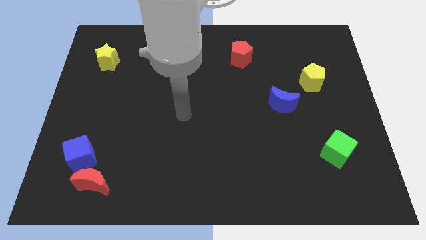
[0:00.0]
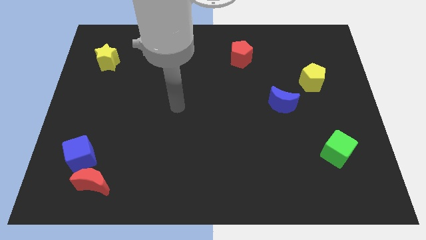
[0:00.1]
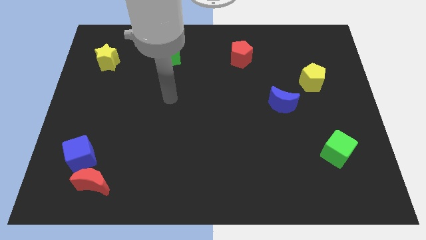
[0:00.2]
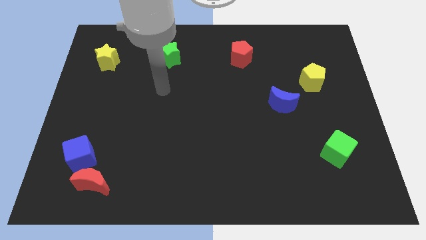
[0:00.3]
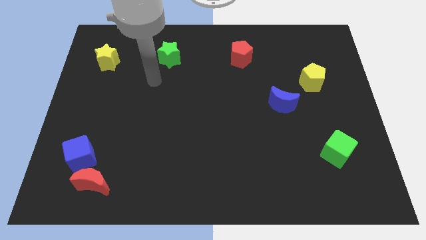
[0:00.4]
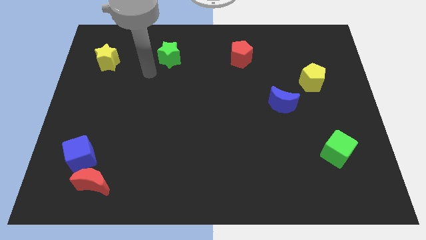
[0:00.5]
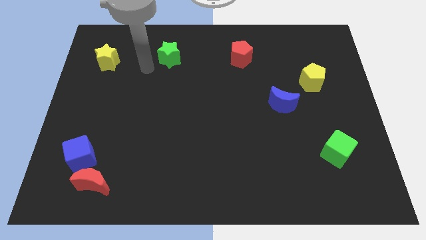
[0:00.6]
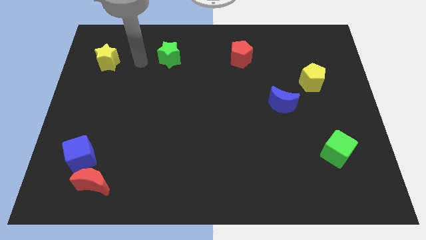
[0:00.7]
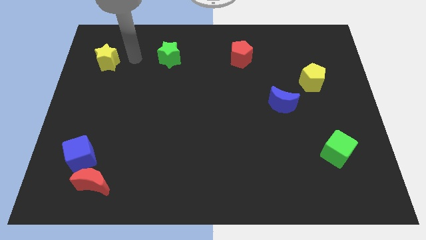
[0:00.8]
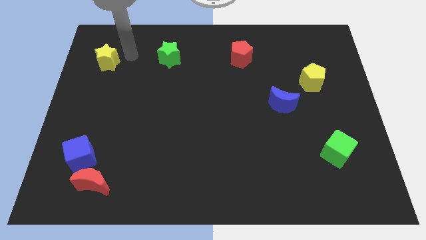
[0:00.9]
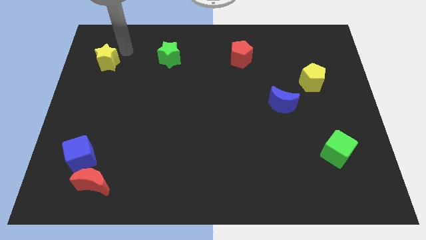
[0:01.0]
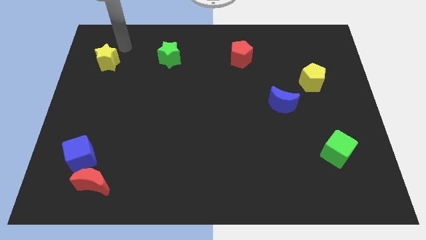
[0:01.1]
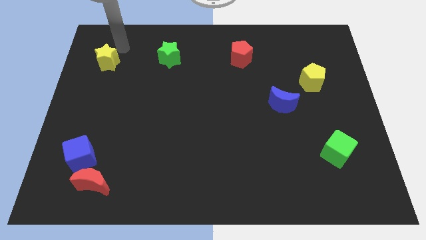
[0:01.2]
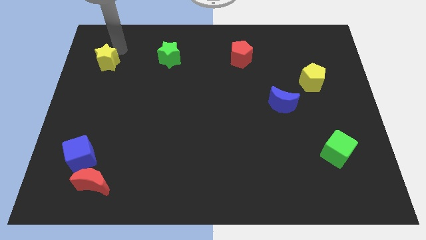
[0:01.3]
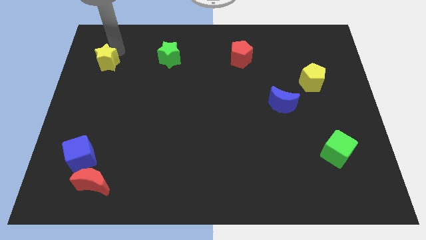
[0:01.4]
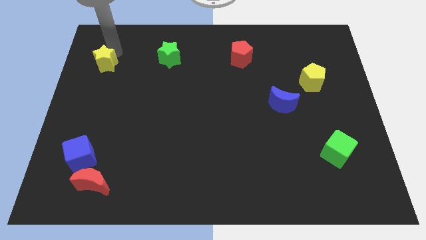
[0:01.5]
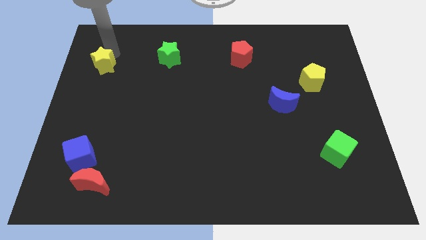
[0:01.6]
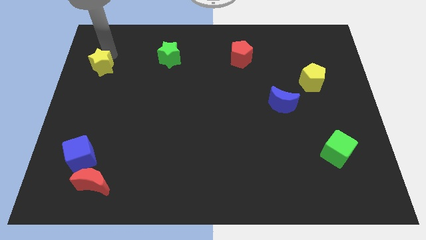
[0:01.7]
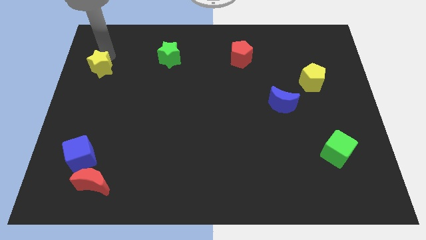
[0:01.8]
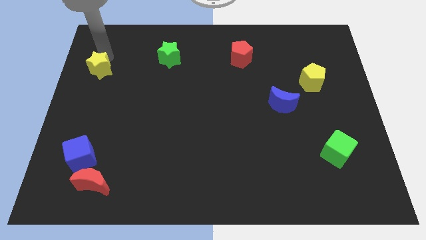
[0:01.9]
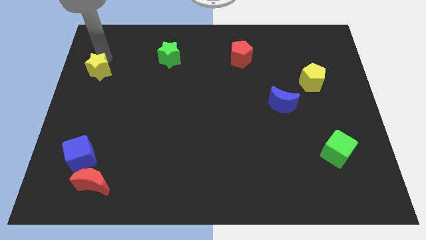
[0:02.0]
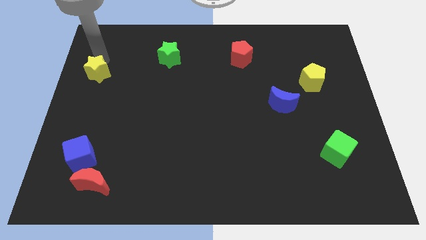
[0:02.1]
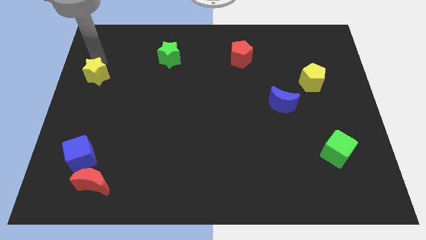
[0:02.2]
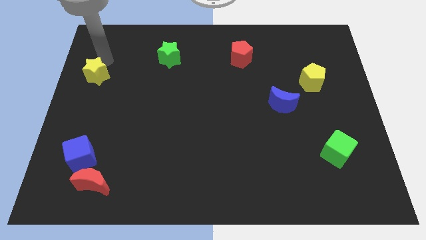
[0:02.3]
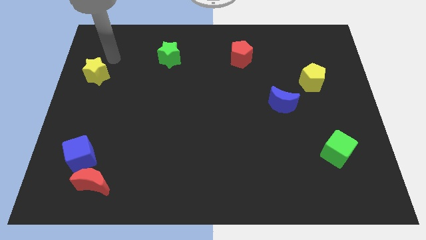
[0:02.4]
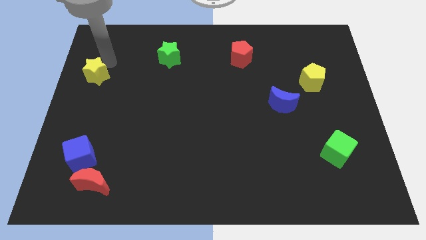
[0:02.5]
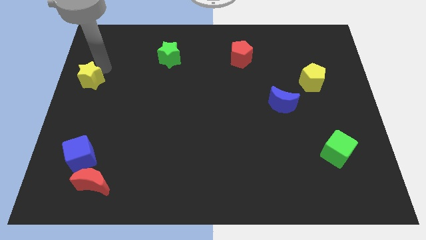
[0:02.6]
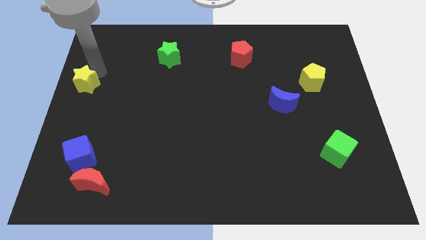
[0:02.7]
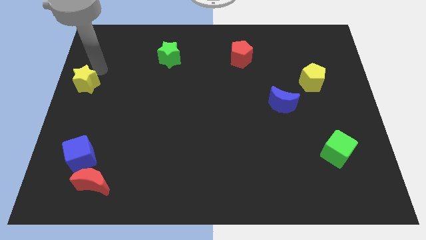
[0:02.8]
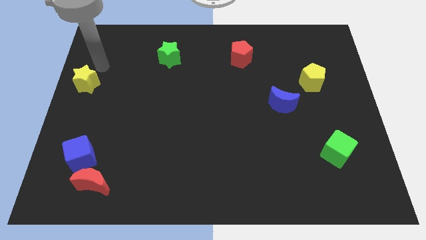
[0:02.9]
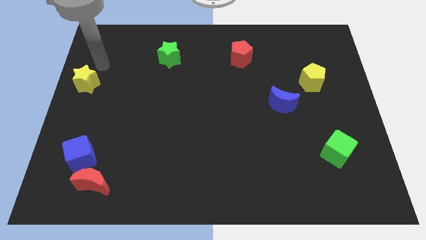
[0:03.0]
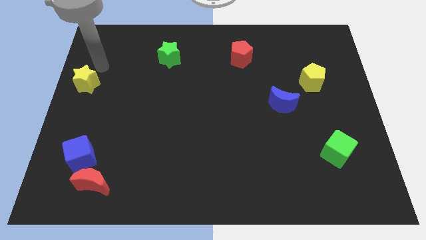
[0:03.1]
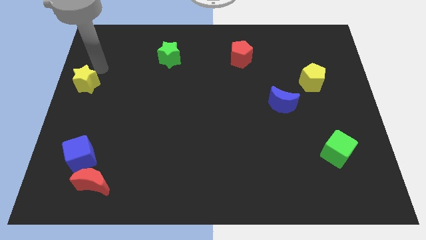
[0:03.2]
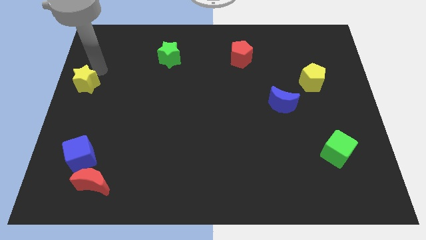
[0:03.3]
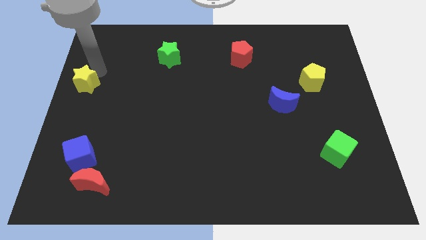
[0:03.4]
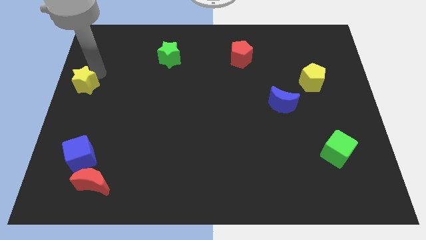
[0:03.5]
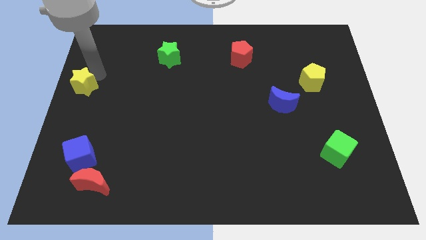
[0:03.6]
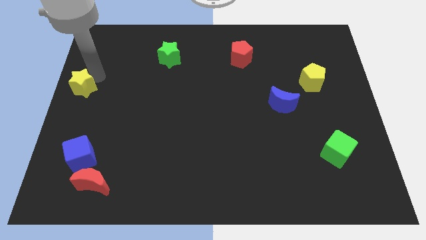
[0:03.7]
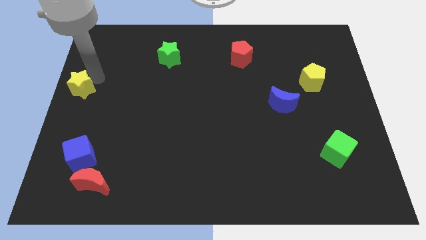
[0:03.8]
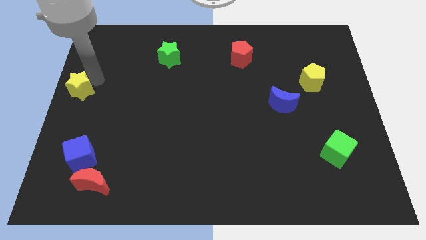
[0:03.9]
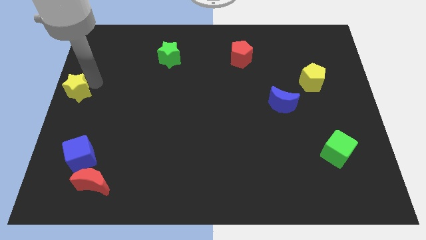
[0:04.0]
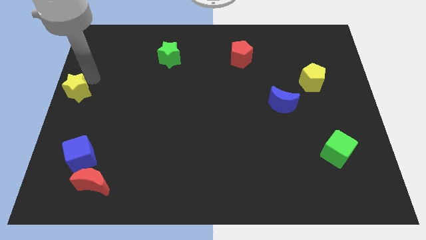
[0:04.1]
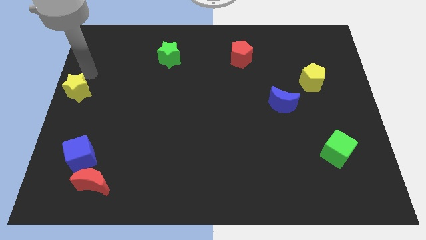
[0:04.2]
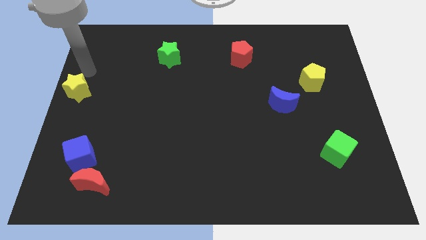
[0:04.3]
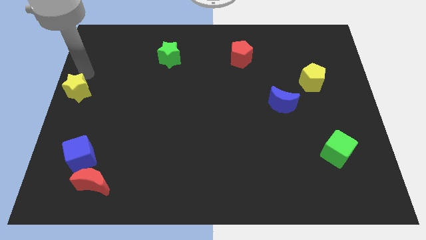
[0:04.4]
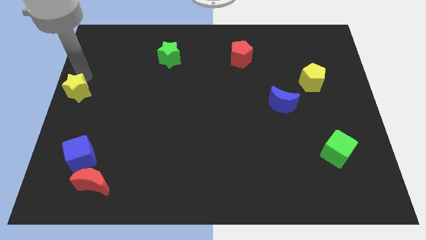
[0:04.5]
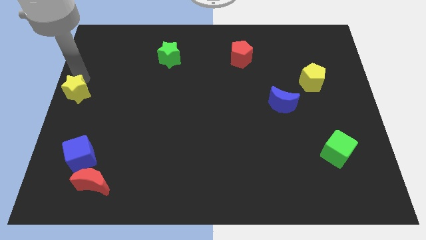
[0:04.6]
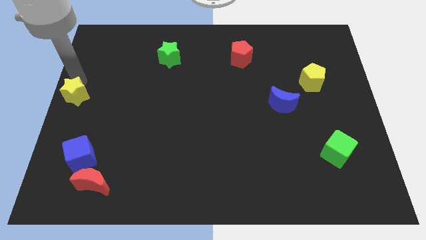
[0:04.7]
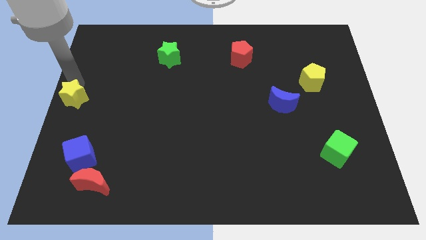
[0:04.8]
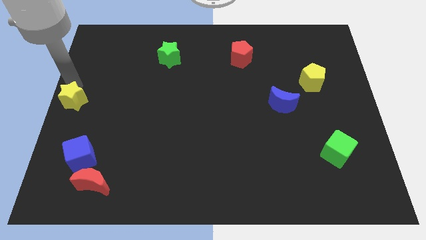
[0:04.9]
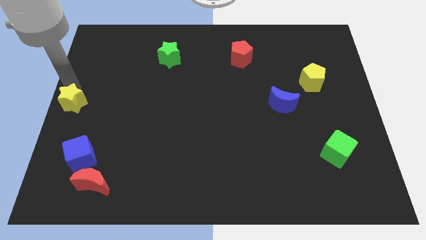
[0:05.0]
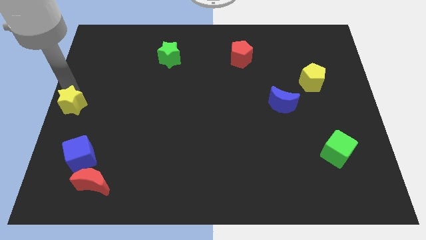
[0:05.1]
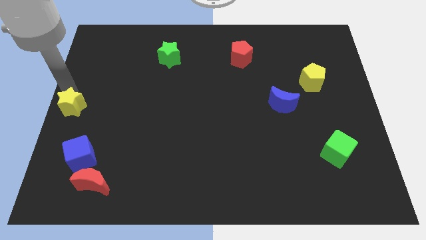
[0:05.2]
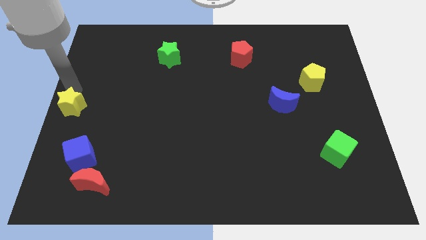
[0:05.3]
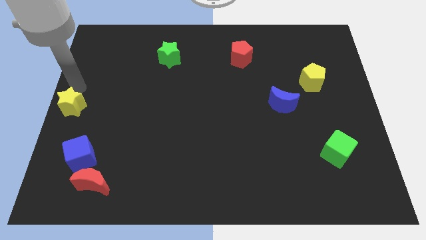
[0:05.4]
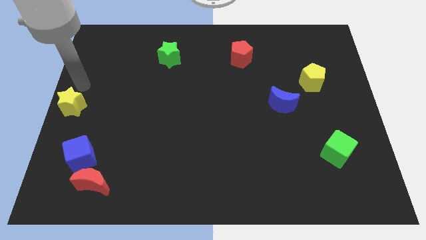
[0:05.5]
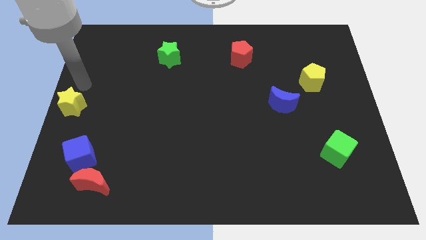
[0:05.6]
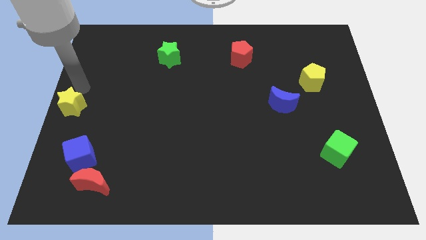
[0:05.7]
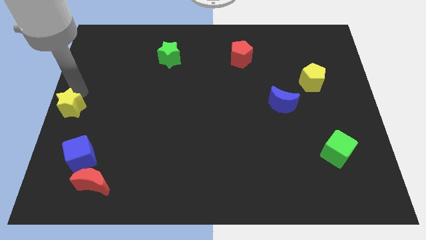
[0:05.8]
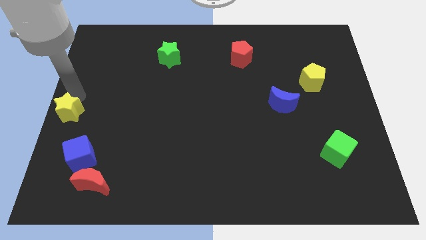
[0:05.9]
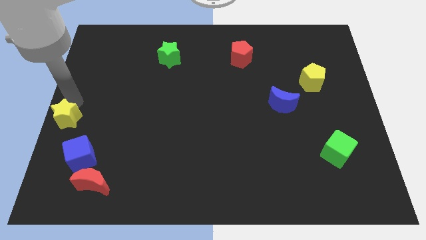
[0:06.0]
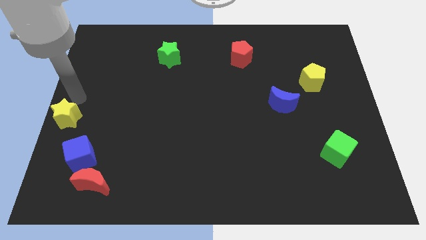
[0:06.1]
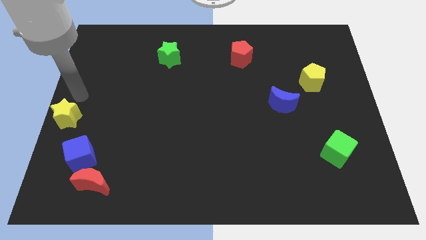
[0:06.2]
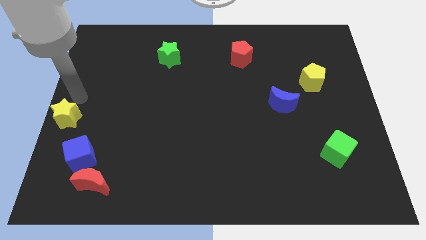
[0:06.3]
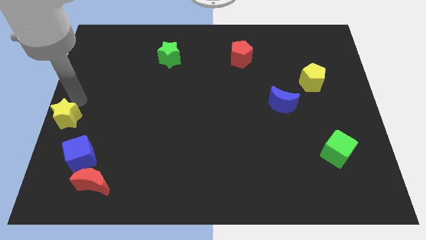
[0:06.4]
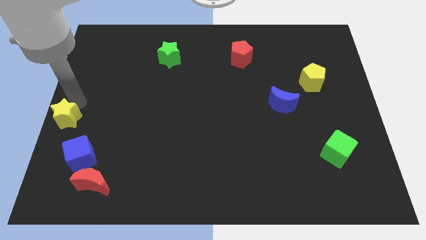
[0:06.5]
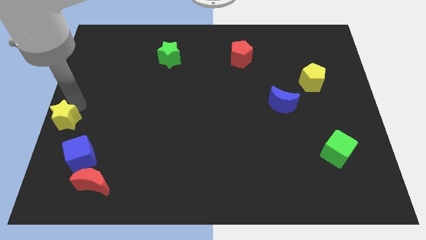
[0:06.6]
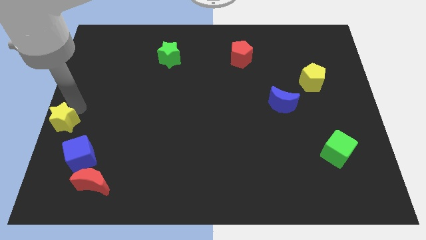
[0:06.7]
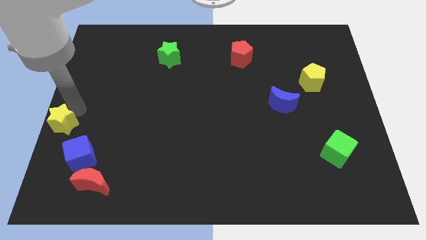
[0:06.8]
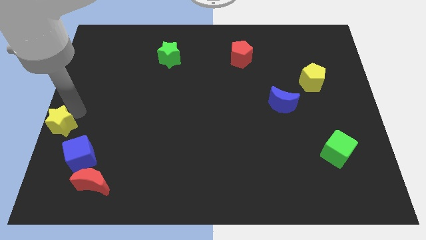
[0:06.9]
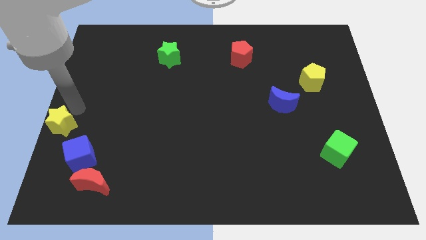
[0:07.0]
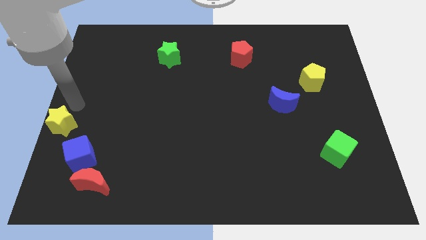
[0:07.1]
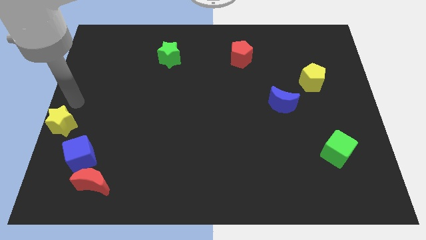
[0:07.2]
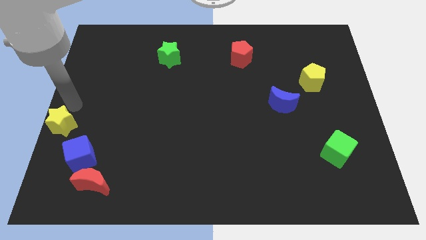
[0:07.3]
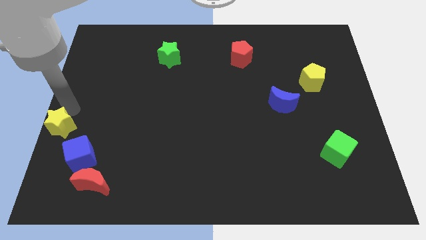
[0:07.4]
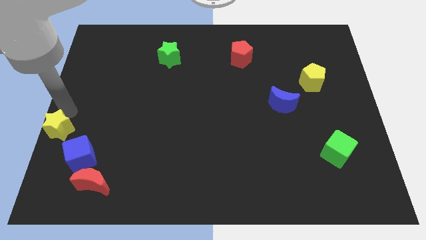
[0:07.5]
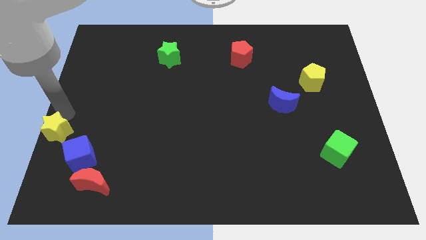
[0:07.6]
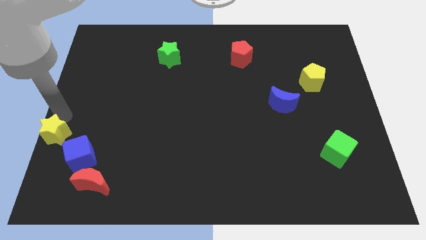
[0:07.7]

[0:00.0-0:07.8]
push the yellow star downwards
